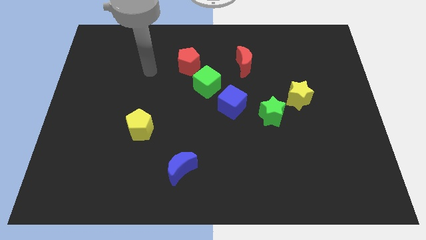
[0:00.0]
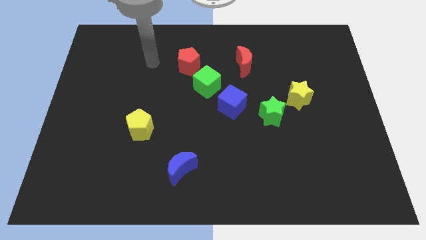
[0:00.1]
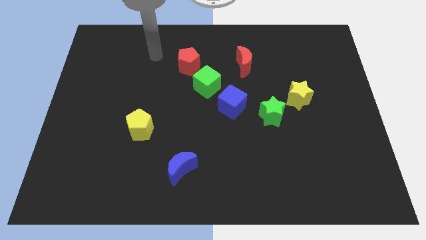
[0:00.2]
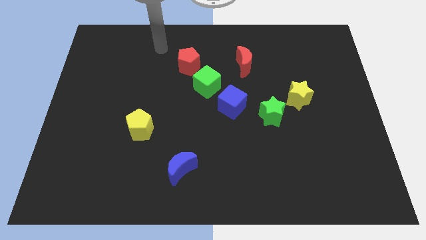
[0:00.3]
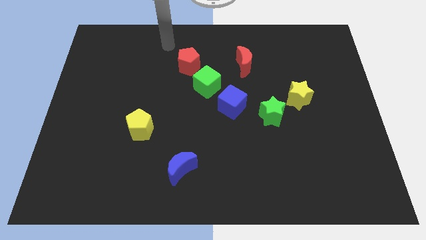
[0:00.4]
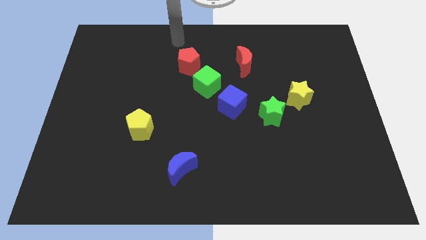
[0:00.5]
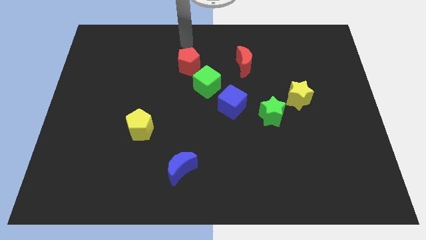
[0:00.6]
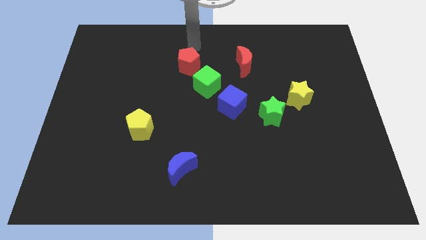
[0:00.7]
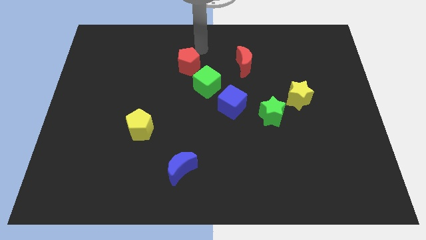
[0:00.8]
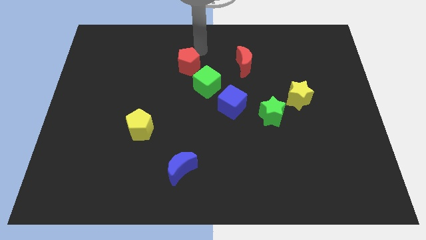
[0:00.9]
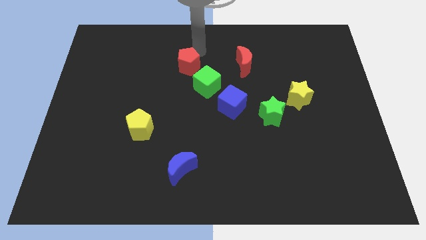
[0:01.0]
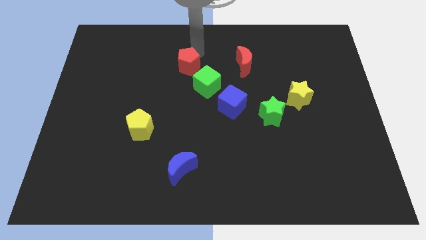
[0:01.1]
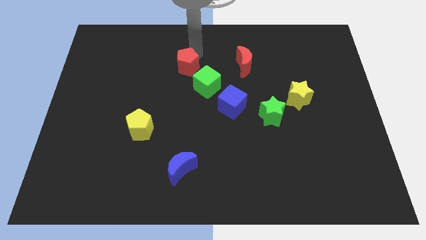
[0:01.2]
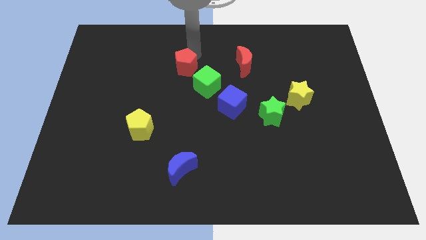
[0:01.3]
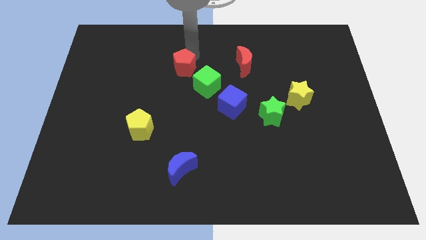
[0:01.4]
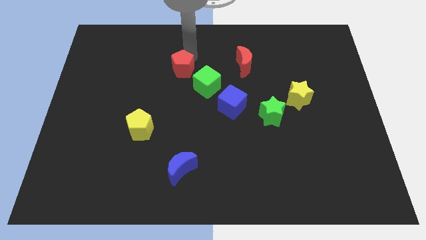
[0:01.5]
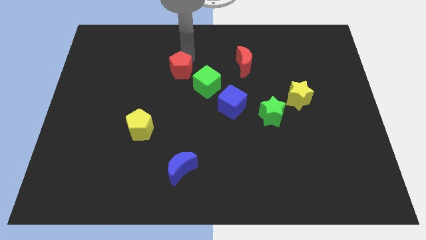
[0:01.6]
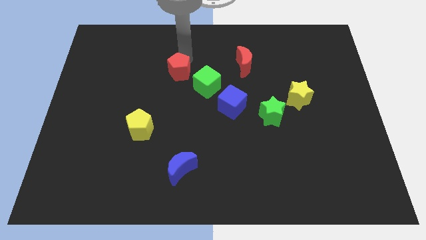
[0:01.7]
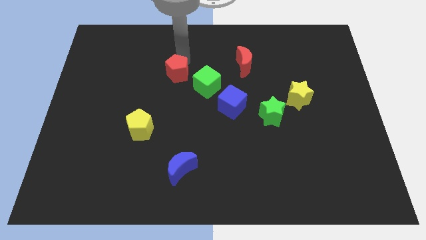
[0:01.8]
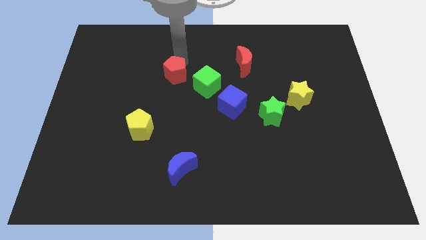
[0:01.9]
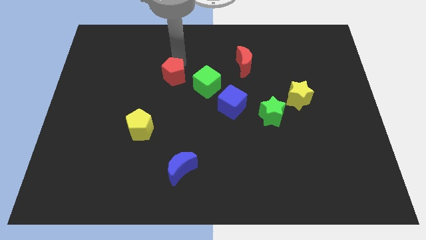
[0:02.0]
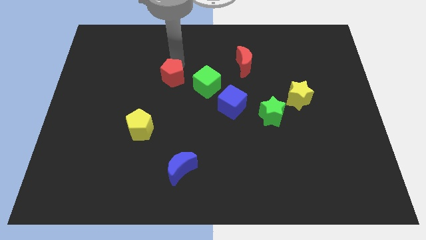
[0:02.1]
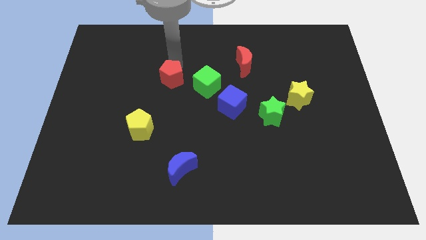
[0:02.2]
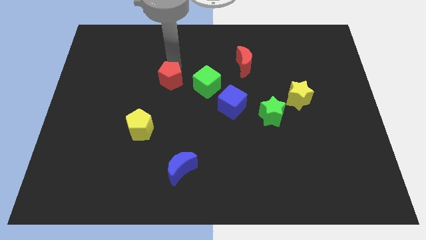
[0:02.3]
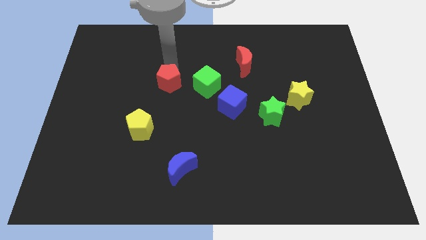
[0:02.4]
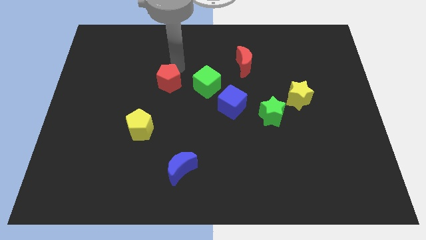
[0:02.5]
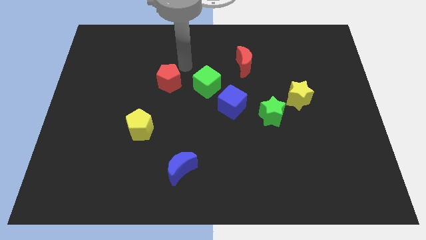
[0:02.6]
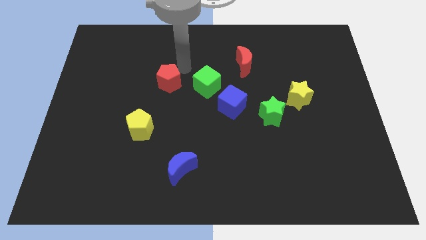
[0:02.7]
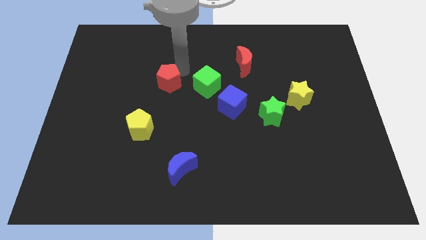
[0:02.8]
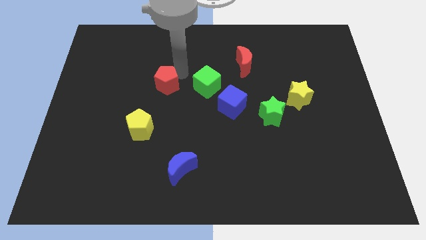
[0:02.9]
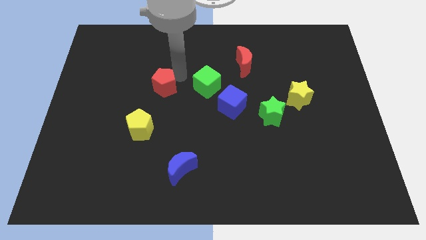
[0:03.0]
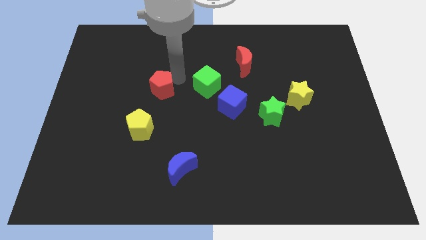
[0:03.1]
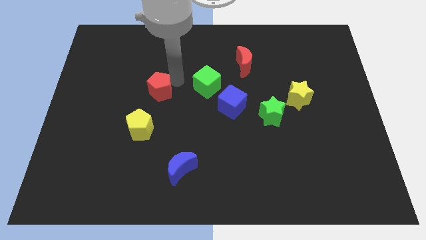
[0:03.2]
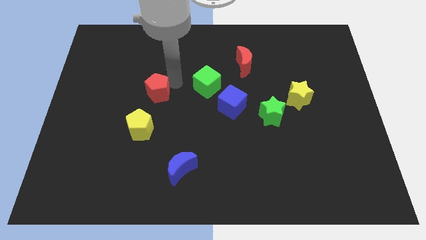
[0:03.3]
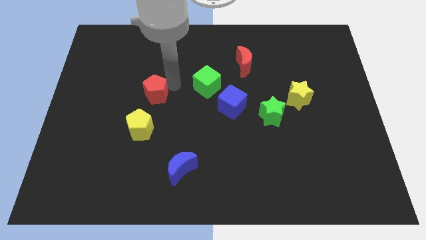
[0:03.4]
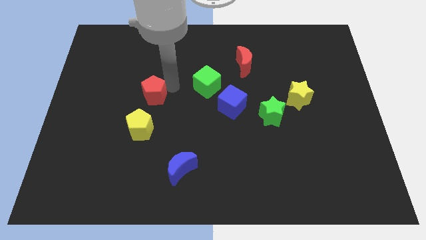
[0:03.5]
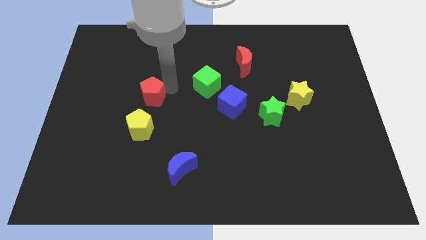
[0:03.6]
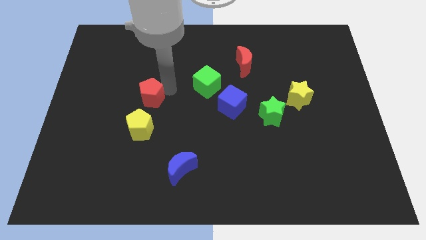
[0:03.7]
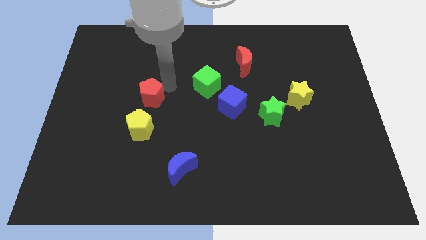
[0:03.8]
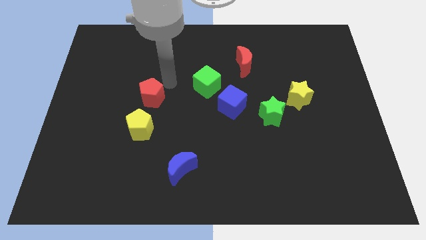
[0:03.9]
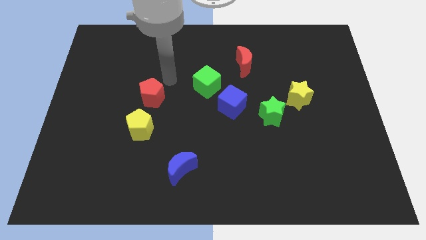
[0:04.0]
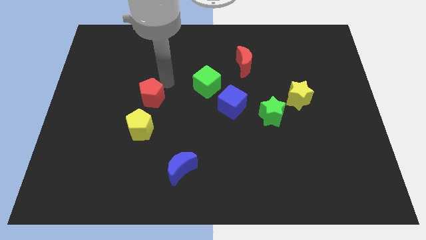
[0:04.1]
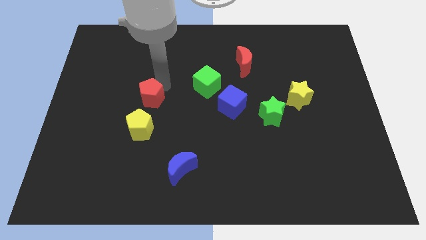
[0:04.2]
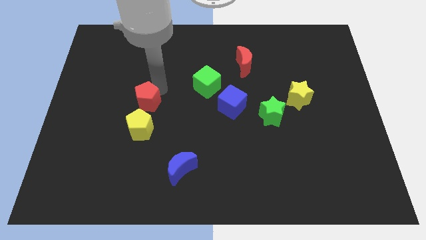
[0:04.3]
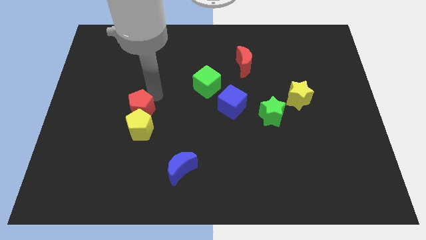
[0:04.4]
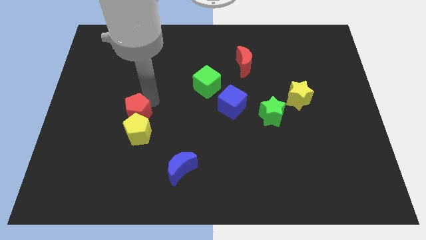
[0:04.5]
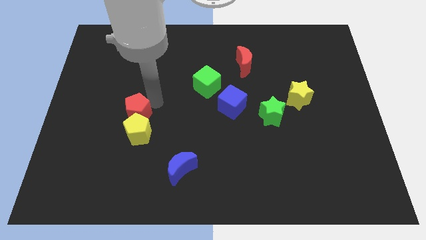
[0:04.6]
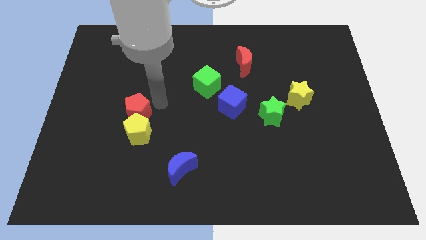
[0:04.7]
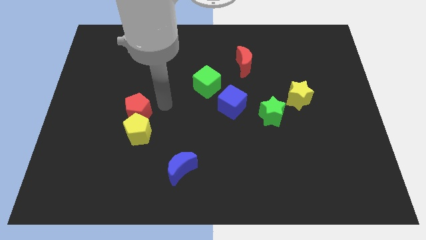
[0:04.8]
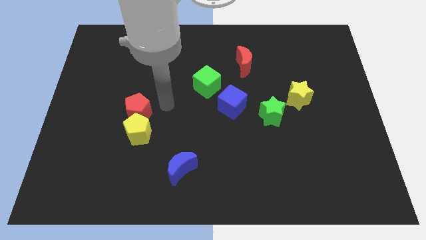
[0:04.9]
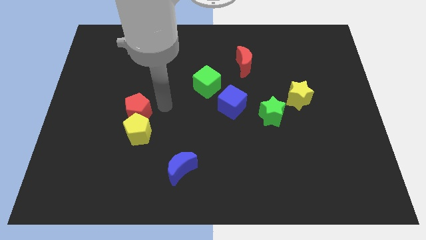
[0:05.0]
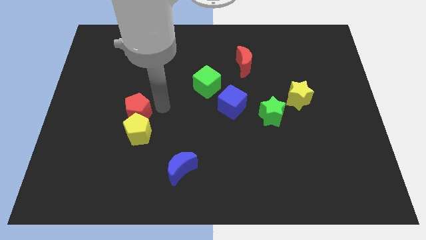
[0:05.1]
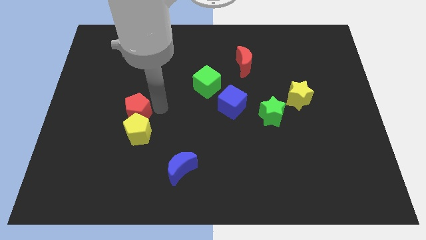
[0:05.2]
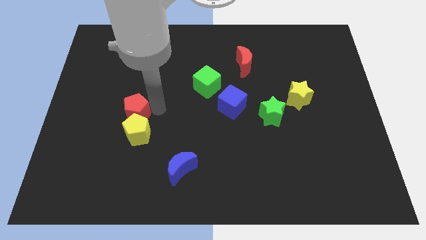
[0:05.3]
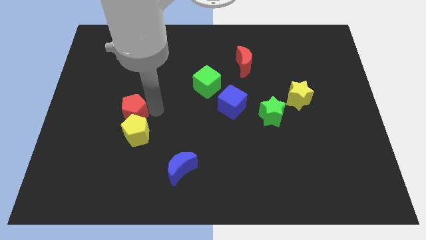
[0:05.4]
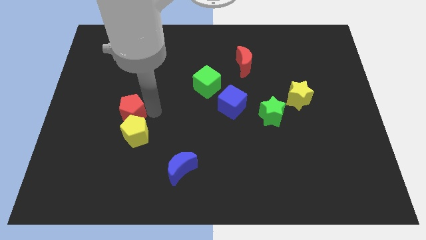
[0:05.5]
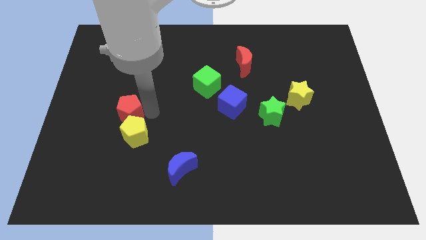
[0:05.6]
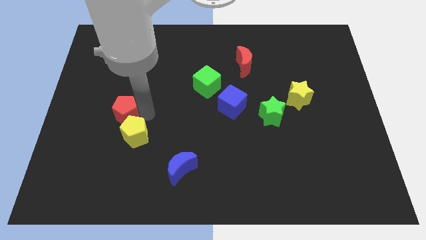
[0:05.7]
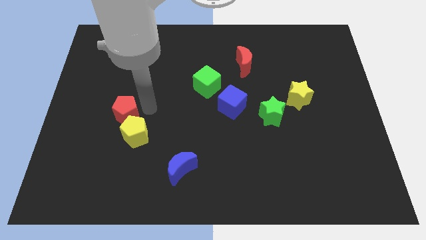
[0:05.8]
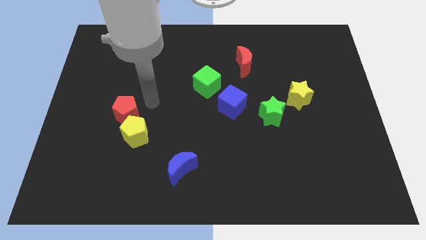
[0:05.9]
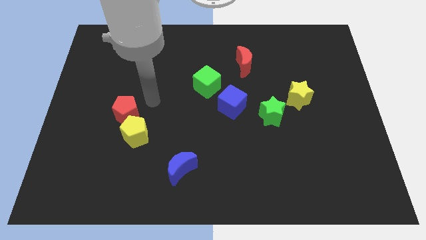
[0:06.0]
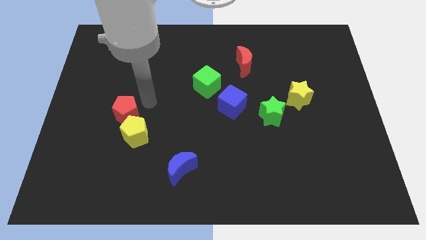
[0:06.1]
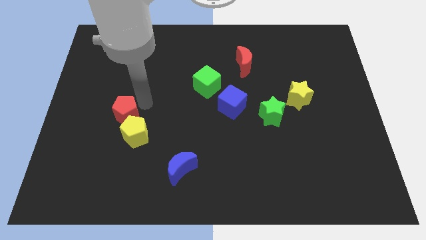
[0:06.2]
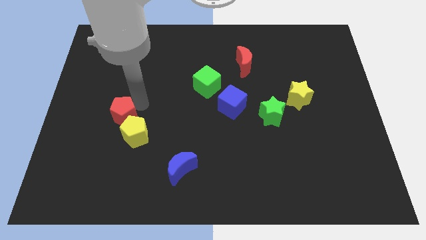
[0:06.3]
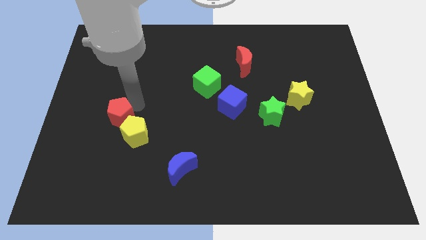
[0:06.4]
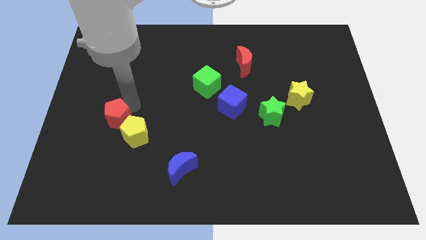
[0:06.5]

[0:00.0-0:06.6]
slide the red pentagon just left of the yellow pentagon

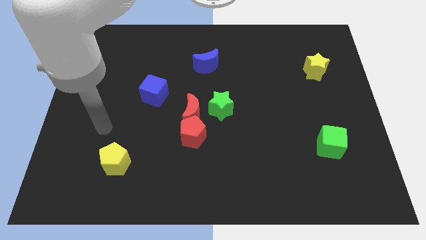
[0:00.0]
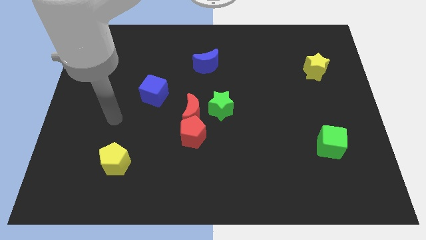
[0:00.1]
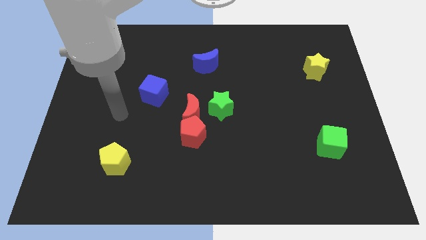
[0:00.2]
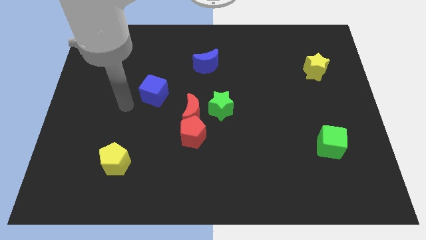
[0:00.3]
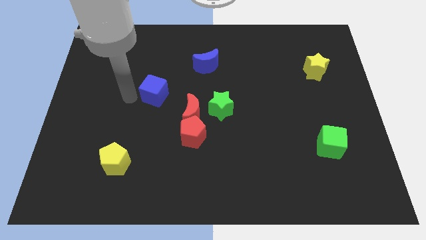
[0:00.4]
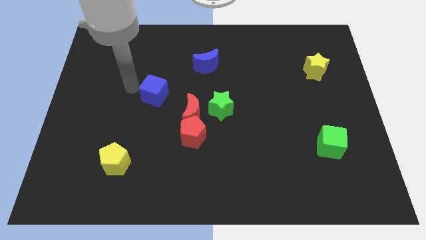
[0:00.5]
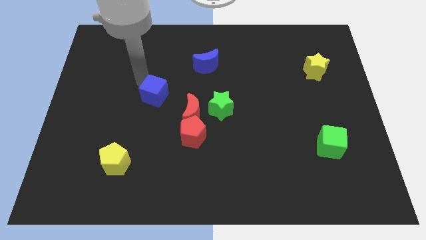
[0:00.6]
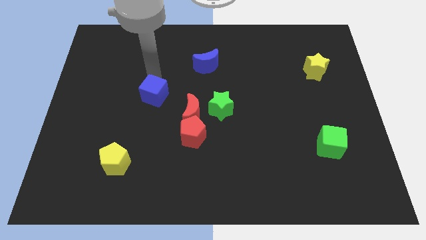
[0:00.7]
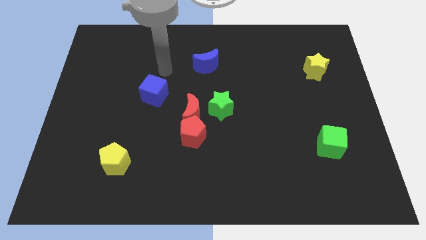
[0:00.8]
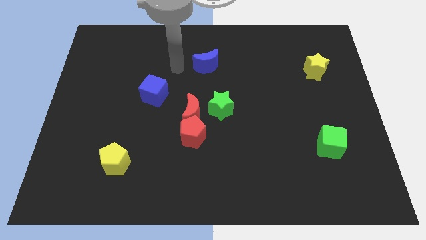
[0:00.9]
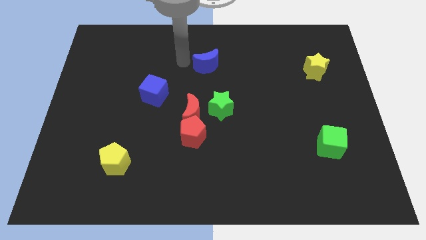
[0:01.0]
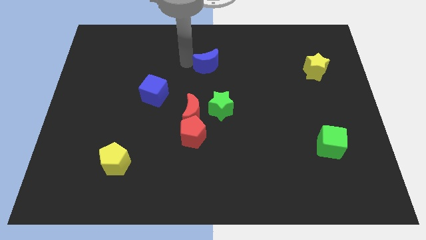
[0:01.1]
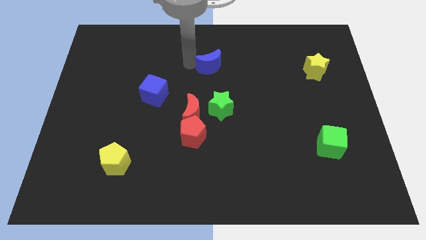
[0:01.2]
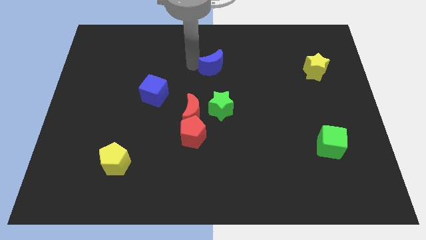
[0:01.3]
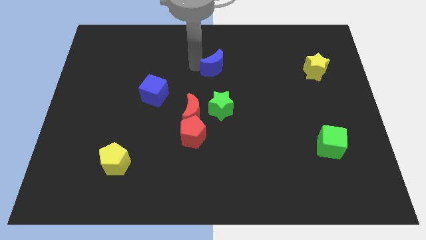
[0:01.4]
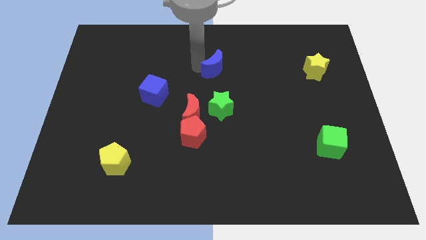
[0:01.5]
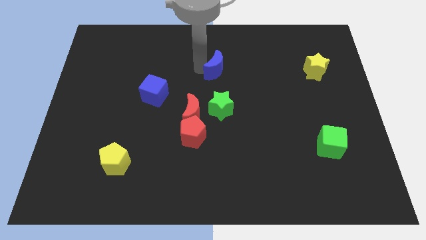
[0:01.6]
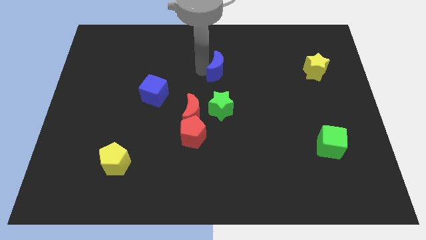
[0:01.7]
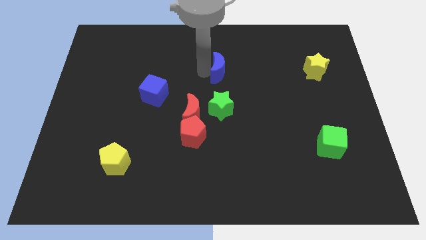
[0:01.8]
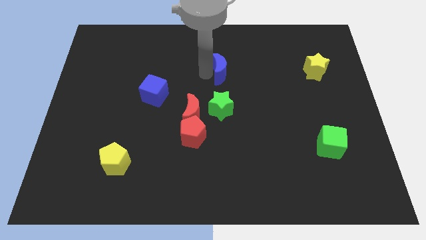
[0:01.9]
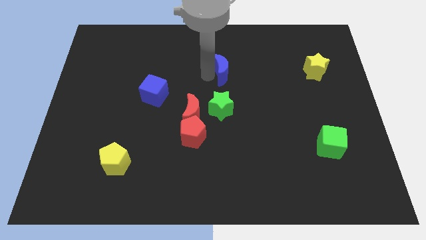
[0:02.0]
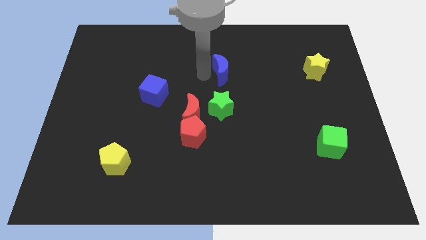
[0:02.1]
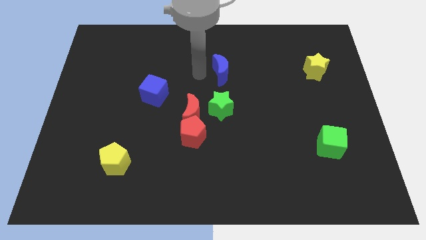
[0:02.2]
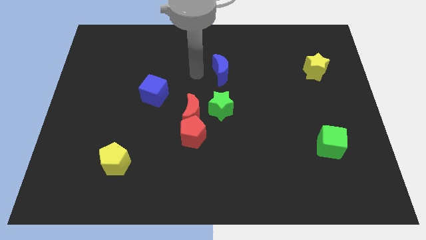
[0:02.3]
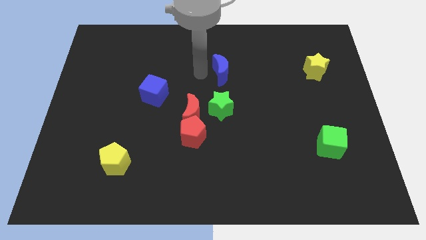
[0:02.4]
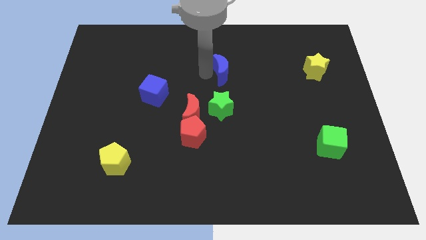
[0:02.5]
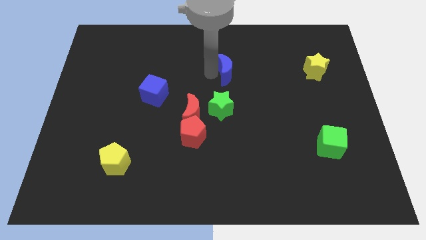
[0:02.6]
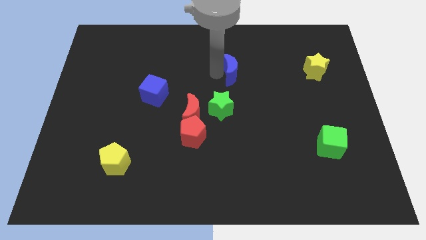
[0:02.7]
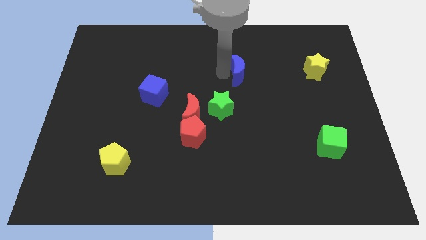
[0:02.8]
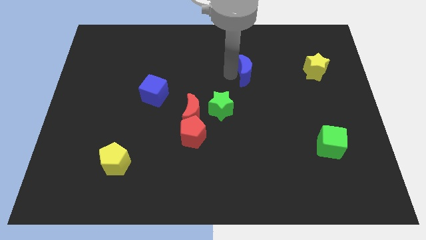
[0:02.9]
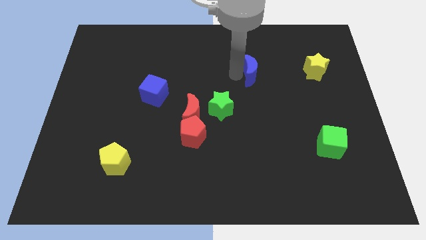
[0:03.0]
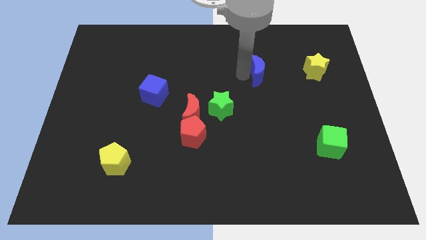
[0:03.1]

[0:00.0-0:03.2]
push the blue moon to the left of the yellow star
